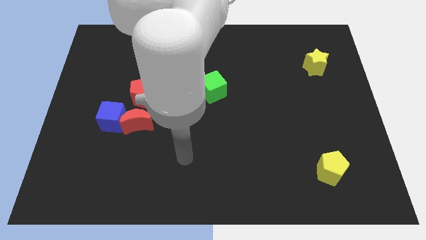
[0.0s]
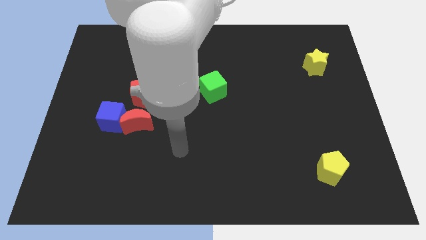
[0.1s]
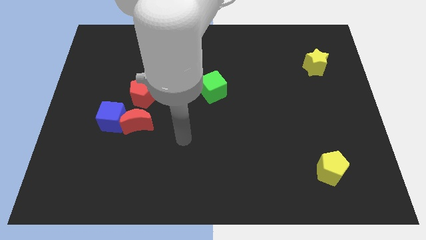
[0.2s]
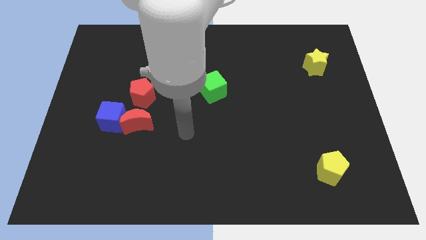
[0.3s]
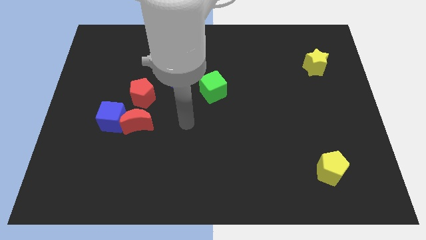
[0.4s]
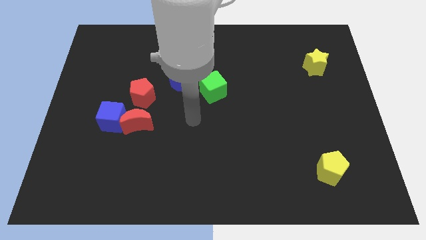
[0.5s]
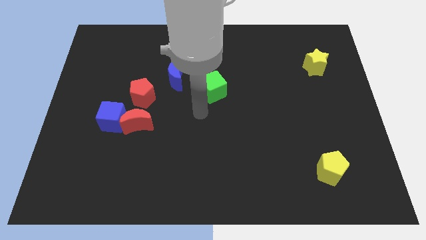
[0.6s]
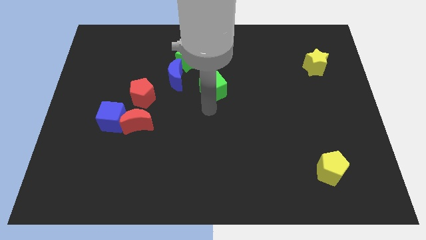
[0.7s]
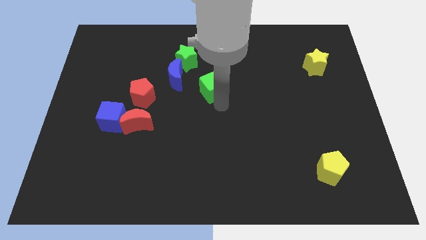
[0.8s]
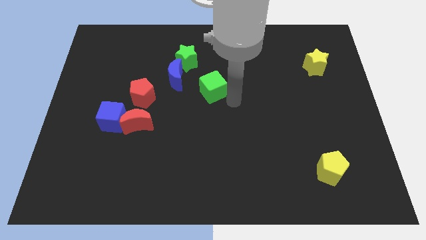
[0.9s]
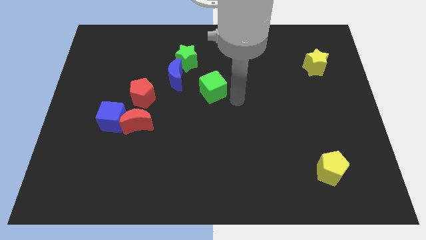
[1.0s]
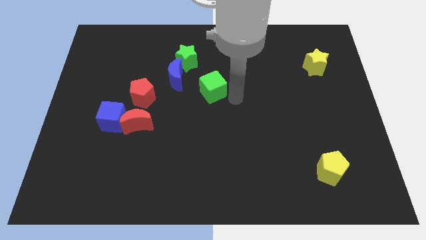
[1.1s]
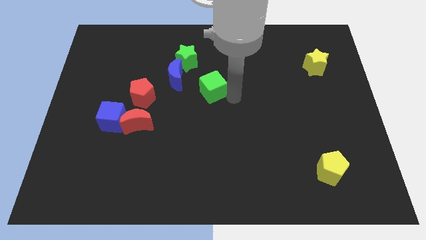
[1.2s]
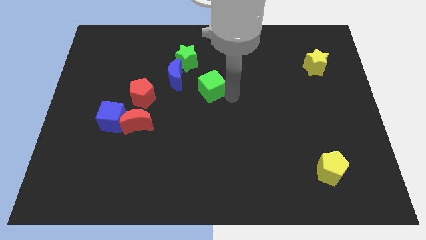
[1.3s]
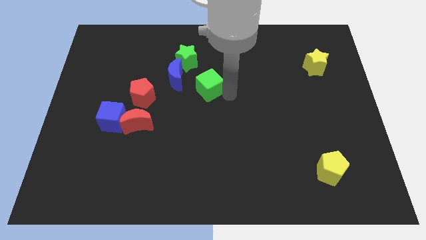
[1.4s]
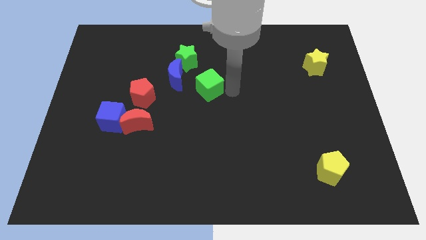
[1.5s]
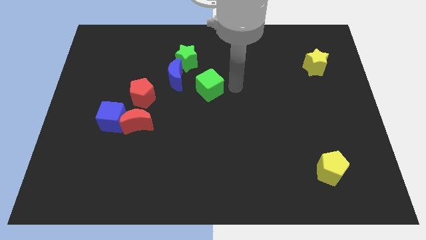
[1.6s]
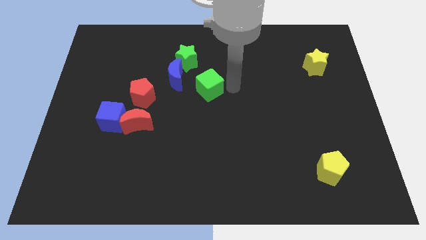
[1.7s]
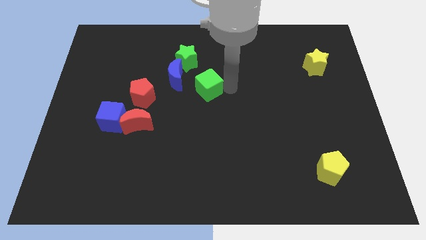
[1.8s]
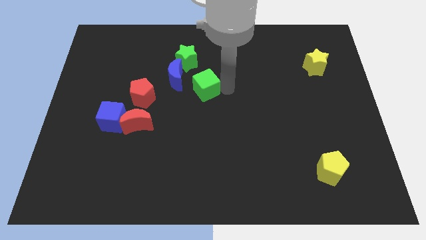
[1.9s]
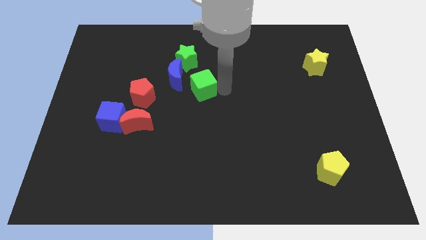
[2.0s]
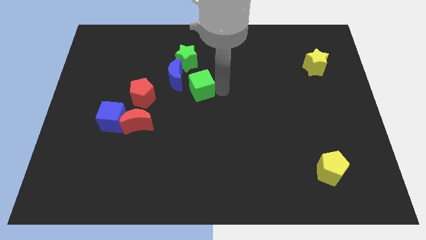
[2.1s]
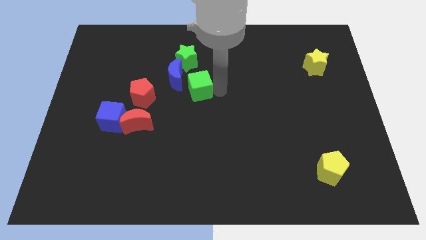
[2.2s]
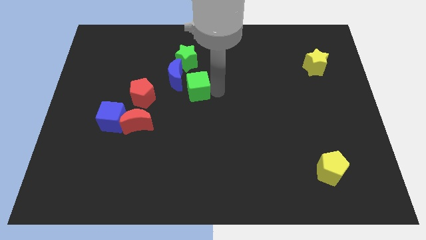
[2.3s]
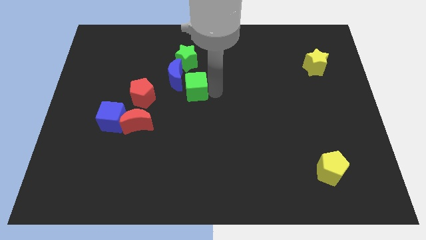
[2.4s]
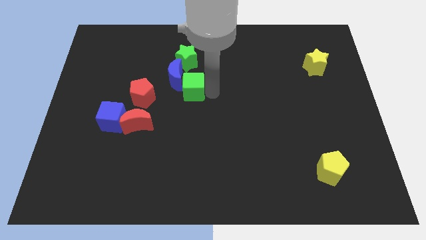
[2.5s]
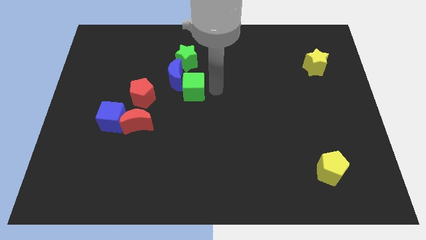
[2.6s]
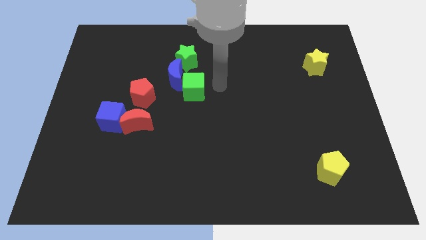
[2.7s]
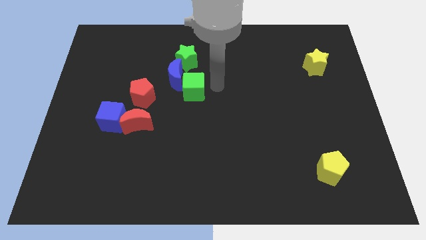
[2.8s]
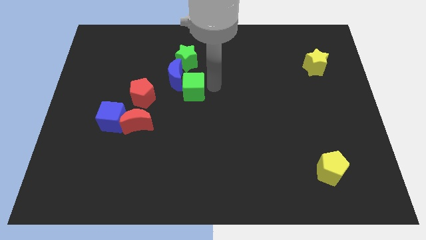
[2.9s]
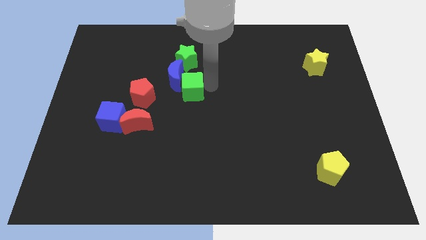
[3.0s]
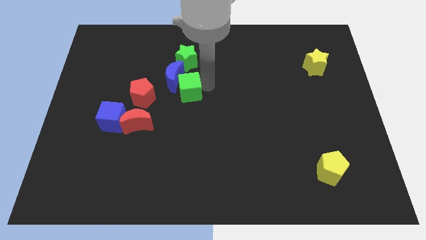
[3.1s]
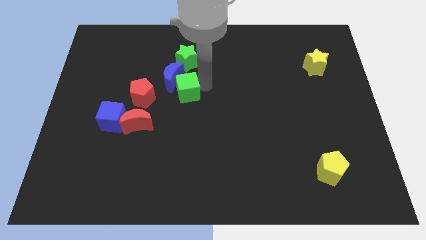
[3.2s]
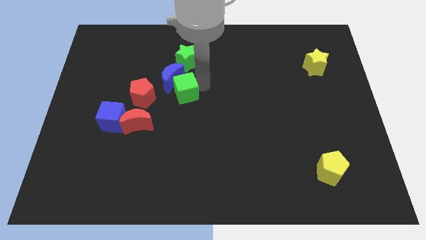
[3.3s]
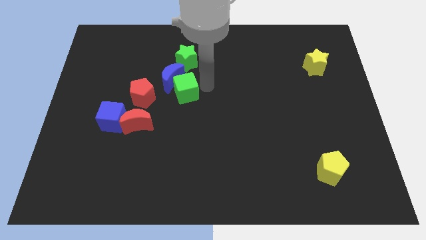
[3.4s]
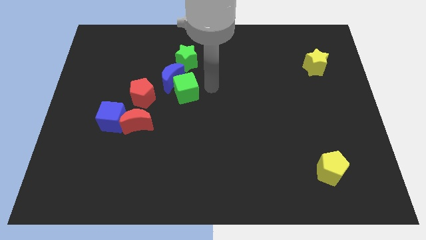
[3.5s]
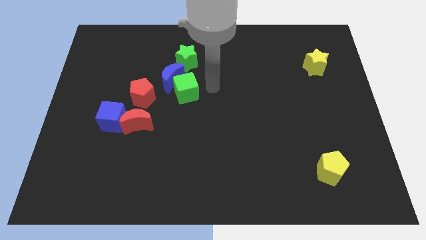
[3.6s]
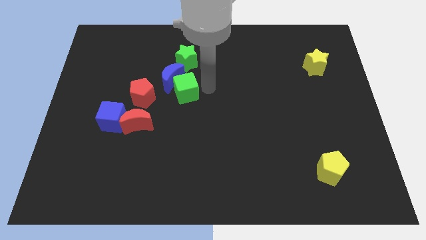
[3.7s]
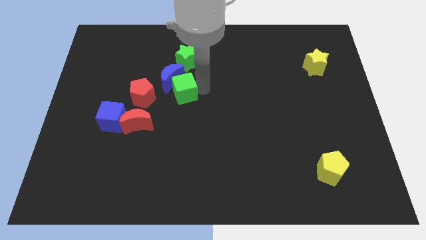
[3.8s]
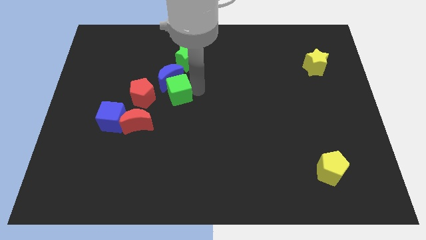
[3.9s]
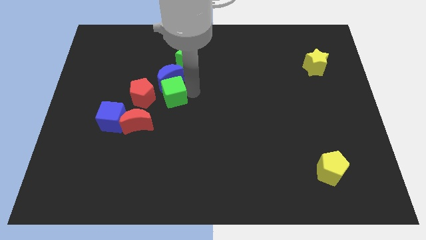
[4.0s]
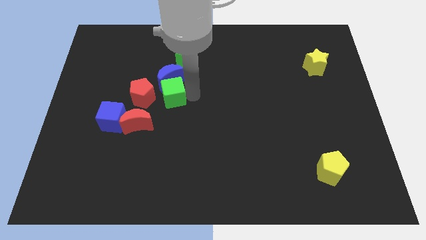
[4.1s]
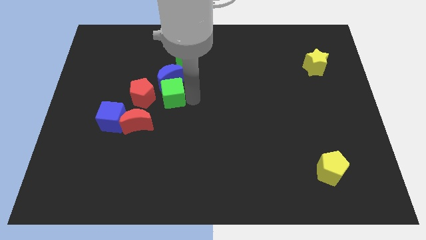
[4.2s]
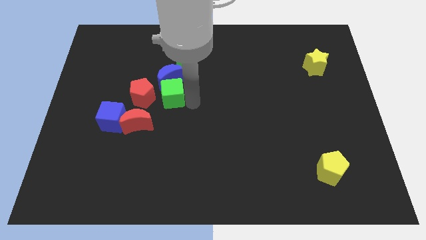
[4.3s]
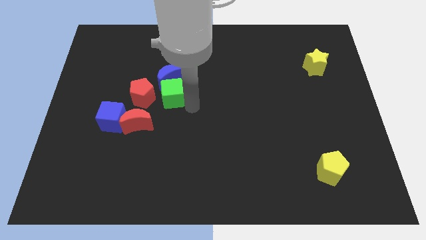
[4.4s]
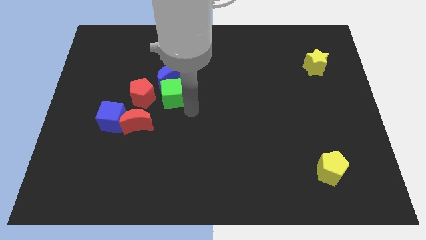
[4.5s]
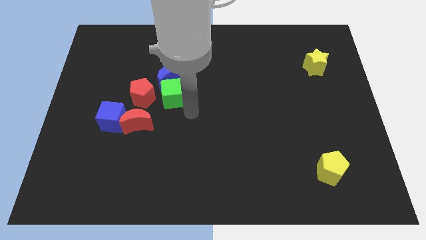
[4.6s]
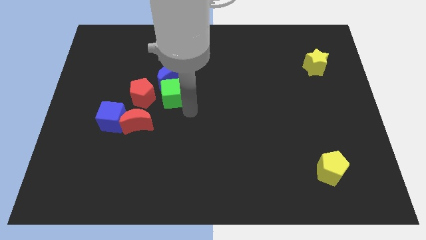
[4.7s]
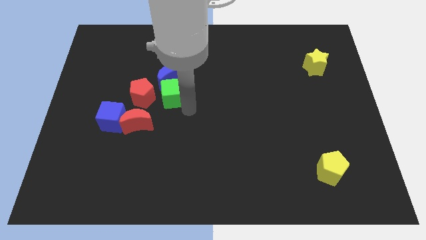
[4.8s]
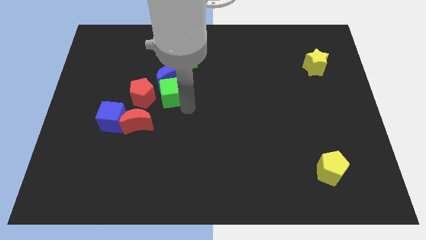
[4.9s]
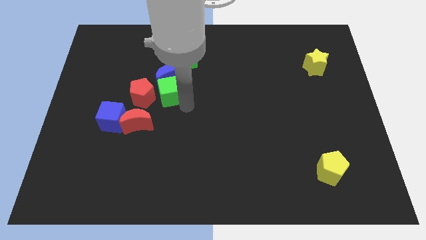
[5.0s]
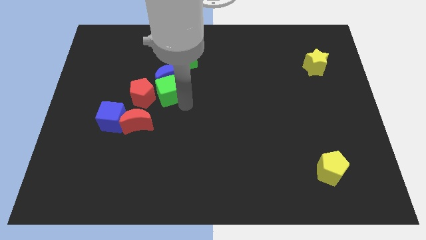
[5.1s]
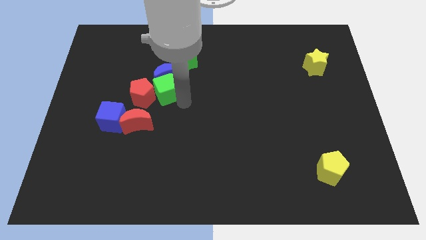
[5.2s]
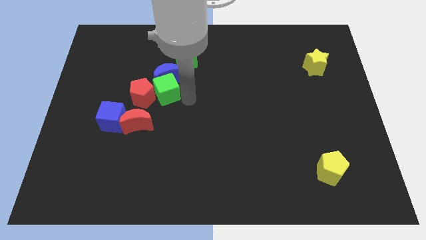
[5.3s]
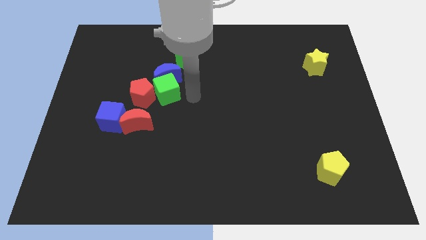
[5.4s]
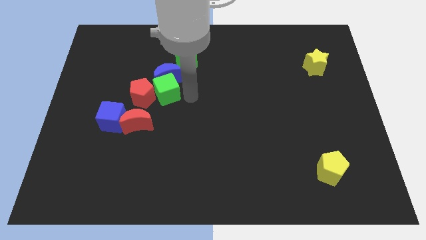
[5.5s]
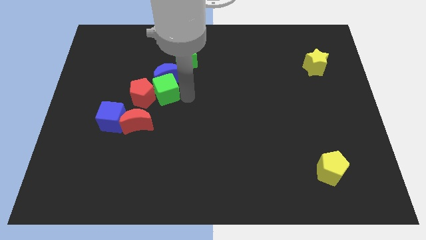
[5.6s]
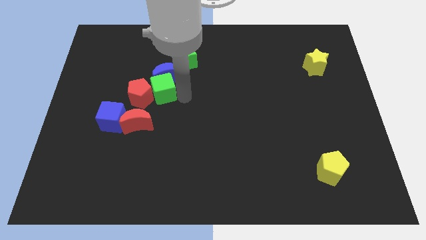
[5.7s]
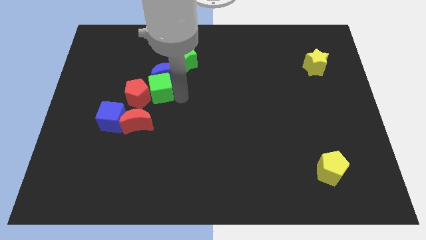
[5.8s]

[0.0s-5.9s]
put the green cube to the top of the red moon

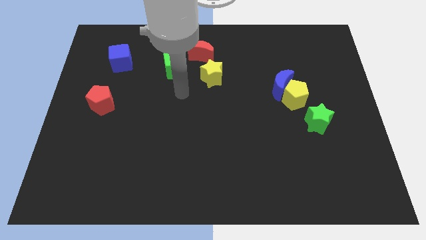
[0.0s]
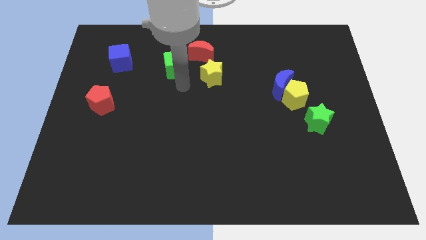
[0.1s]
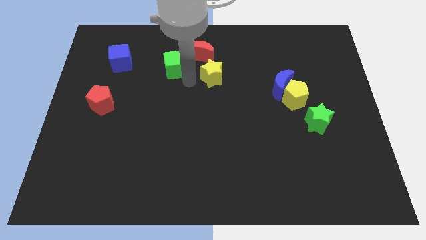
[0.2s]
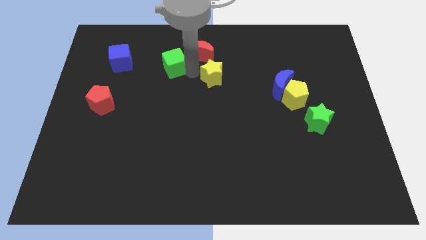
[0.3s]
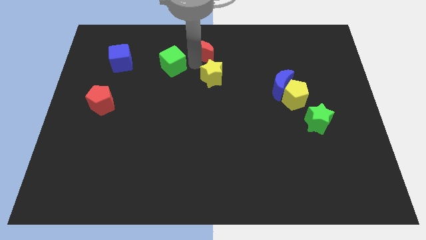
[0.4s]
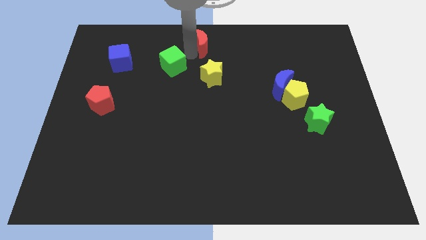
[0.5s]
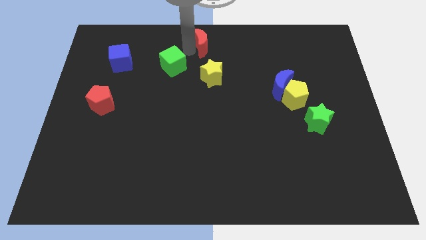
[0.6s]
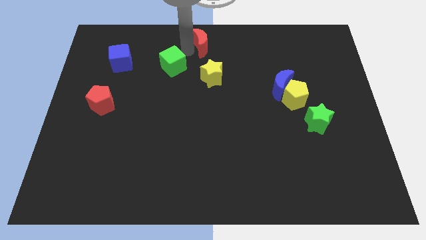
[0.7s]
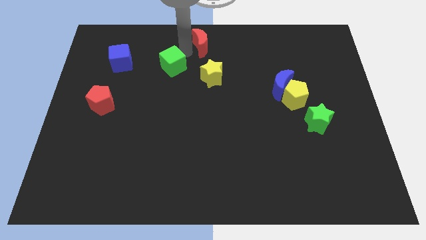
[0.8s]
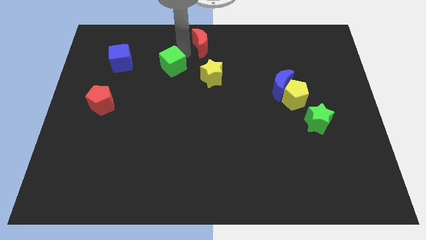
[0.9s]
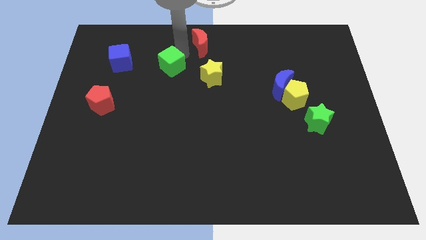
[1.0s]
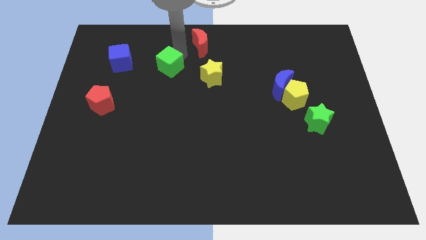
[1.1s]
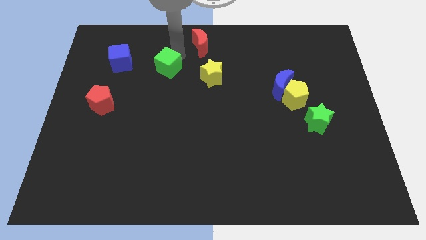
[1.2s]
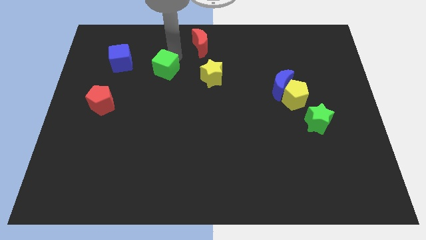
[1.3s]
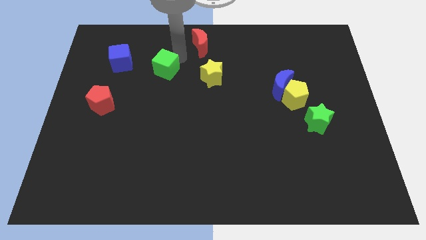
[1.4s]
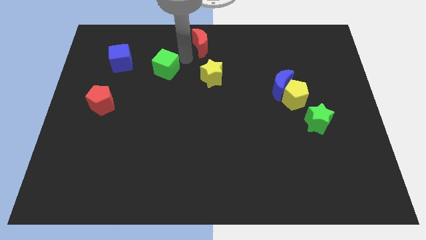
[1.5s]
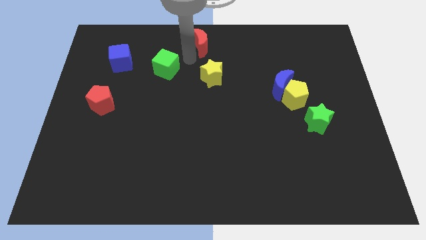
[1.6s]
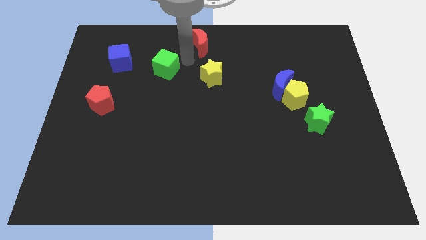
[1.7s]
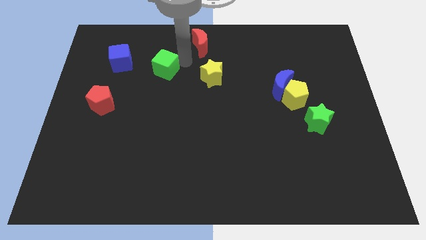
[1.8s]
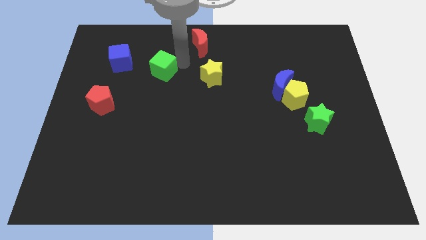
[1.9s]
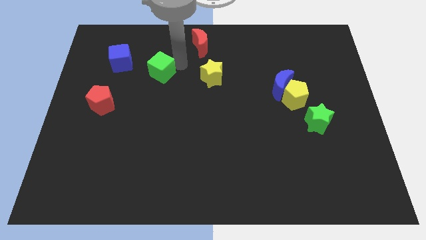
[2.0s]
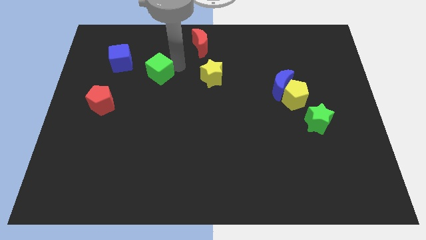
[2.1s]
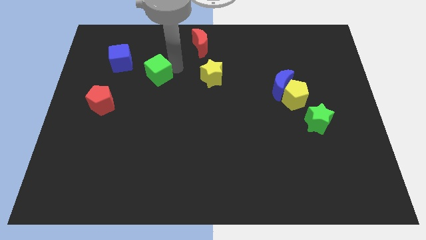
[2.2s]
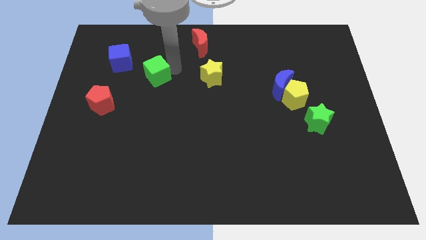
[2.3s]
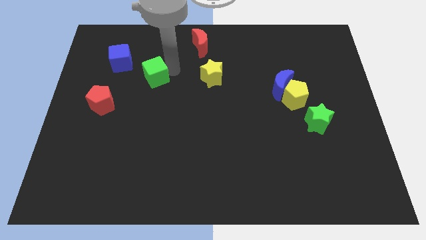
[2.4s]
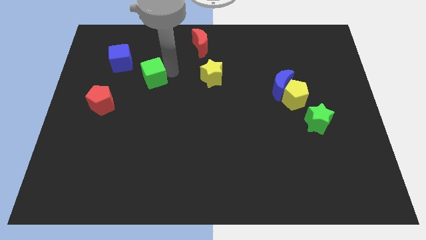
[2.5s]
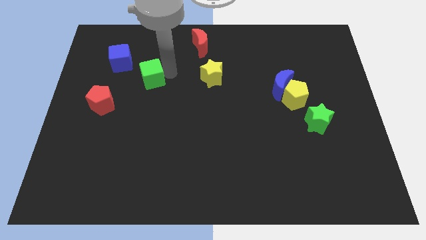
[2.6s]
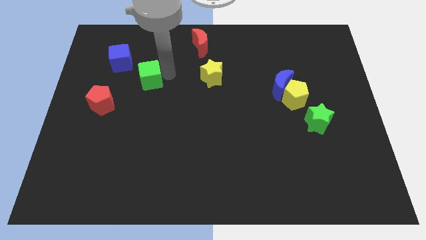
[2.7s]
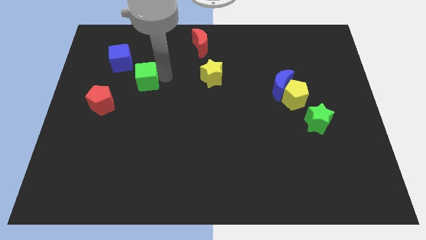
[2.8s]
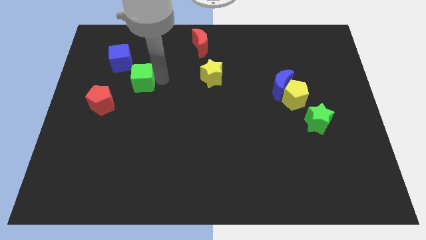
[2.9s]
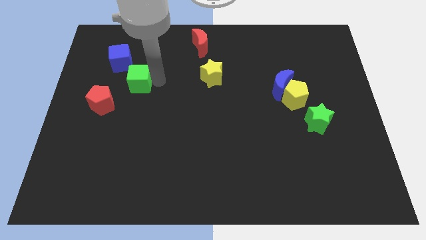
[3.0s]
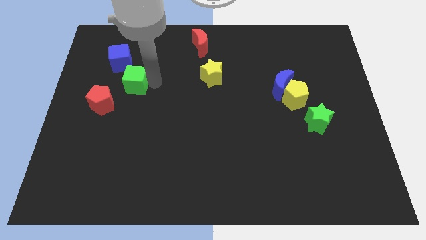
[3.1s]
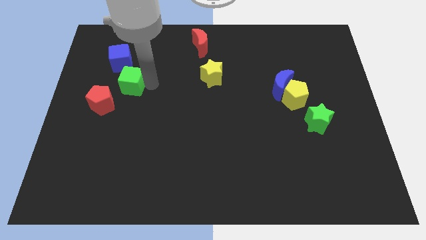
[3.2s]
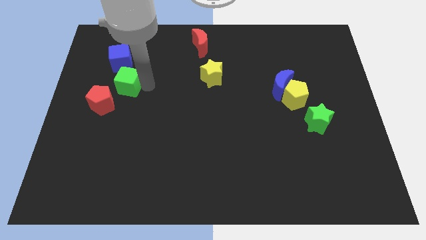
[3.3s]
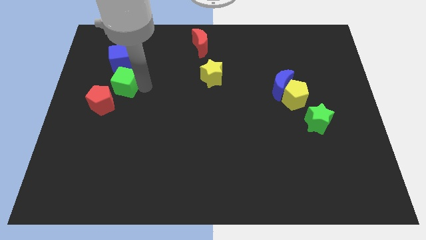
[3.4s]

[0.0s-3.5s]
put the green cube to the top side of the red pentagon
